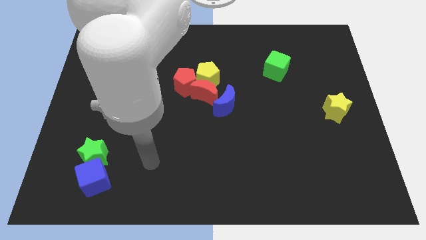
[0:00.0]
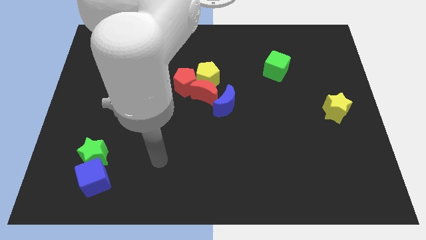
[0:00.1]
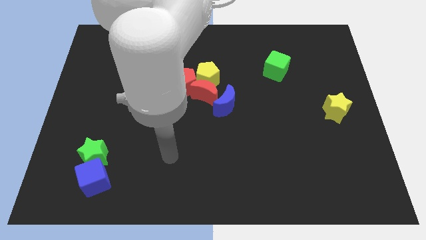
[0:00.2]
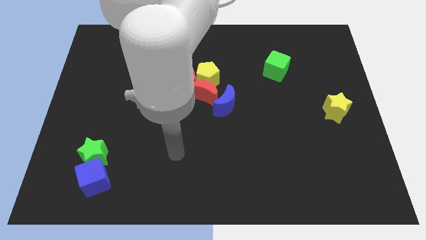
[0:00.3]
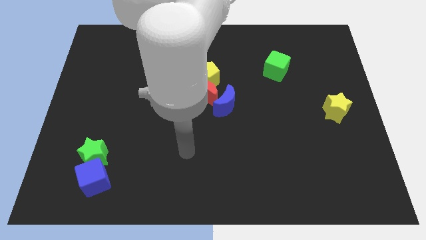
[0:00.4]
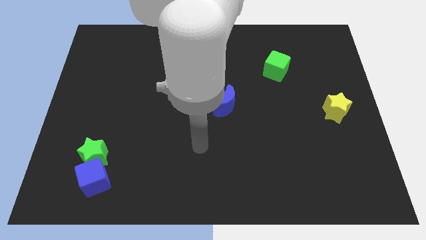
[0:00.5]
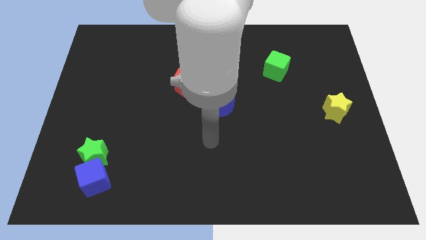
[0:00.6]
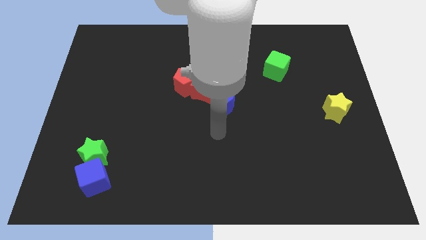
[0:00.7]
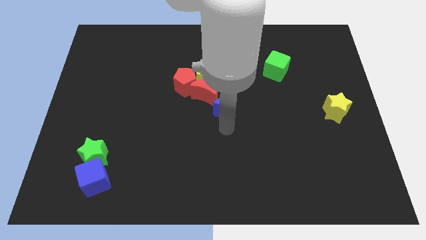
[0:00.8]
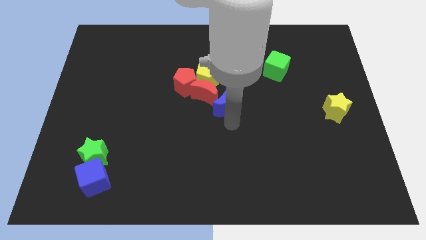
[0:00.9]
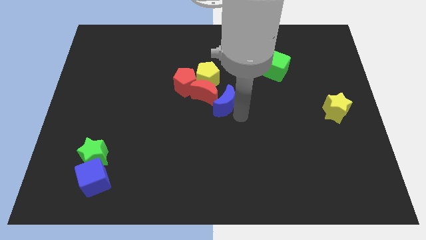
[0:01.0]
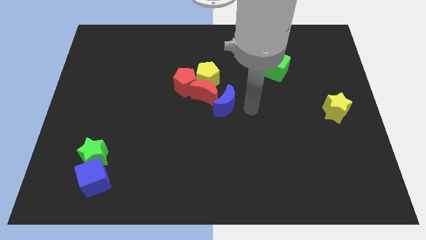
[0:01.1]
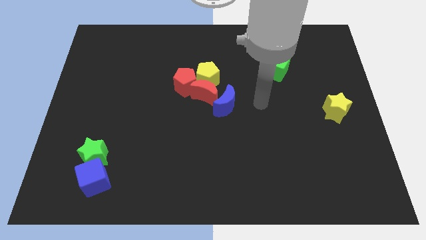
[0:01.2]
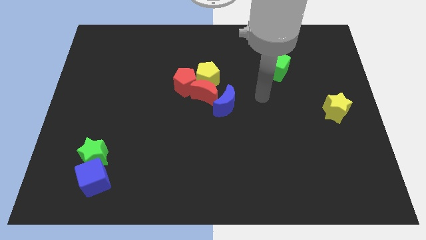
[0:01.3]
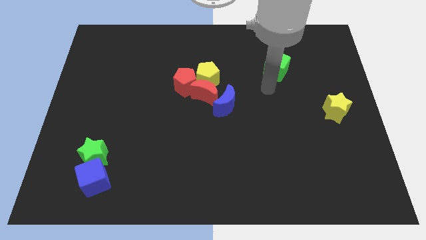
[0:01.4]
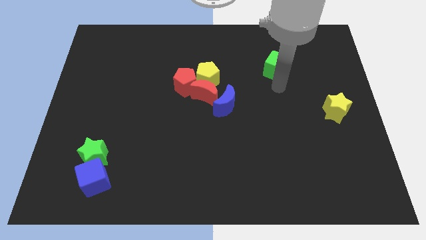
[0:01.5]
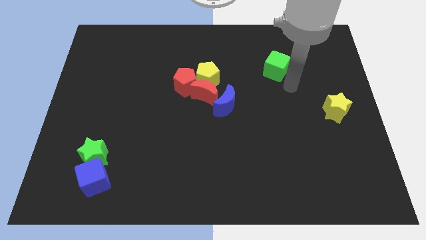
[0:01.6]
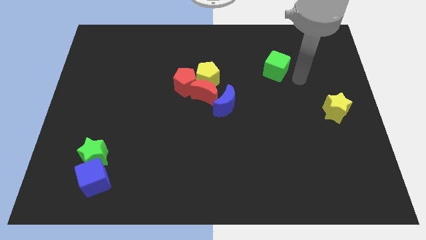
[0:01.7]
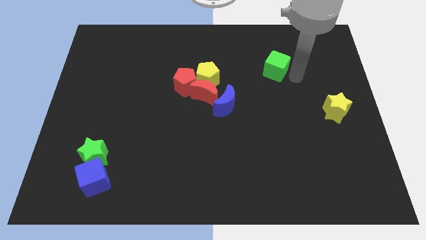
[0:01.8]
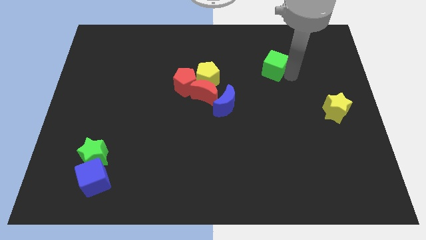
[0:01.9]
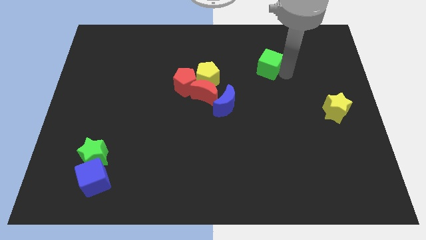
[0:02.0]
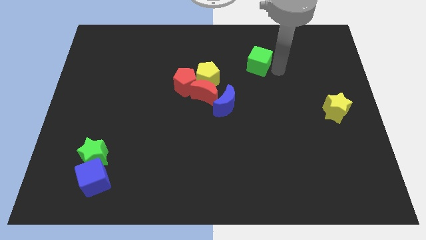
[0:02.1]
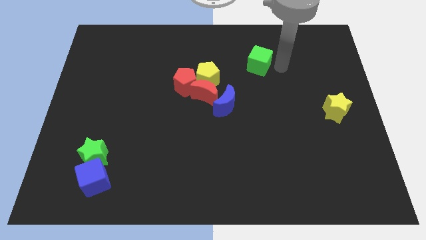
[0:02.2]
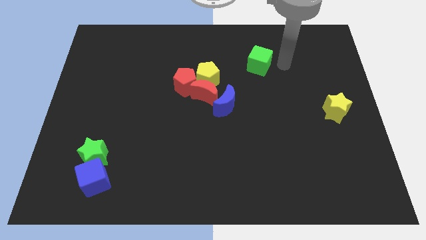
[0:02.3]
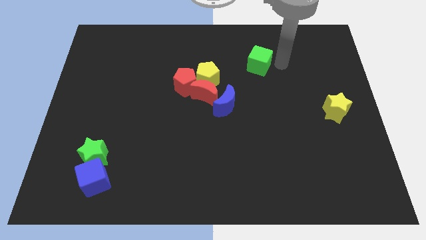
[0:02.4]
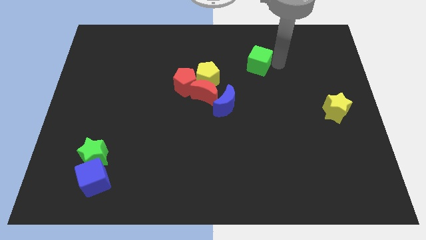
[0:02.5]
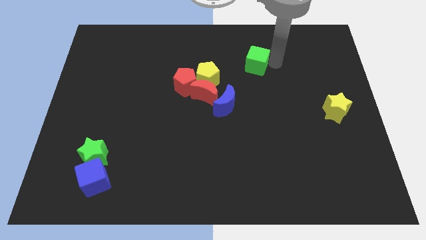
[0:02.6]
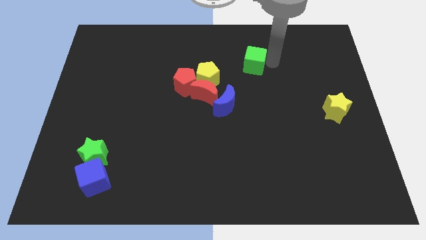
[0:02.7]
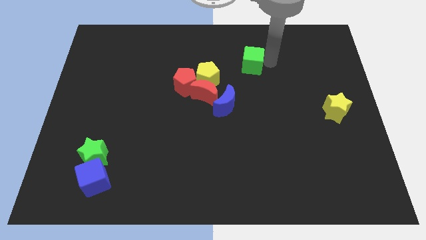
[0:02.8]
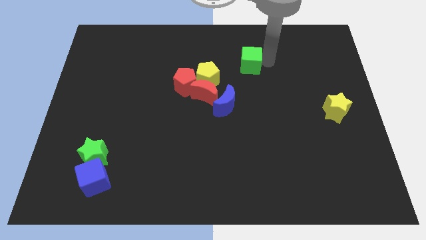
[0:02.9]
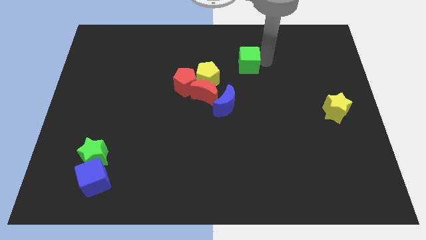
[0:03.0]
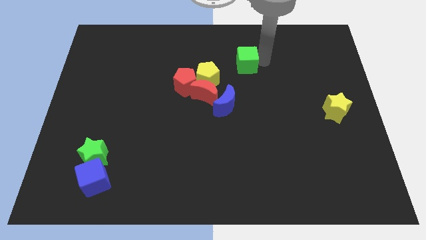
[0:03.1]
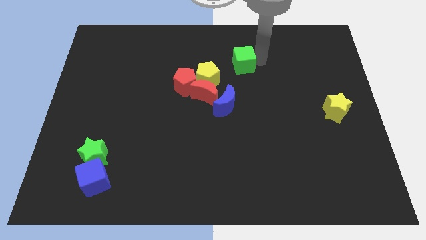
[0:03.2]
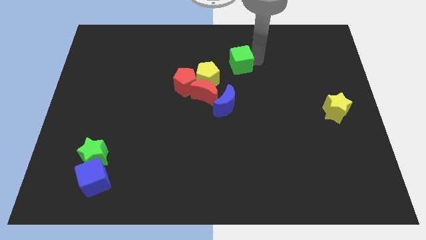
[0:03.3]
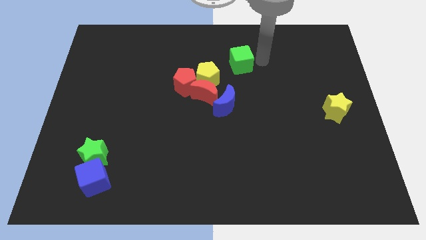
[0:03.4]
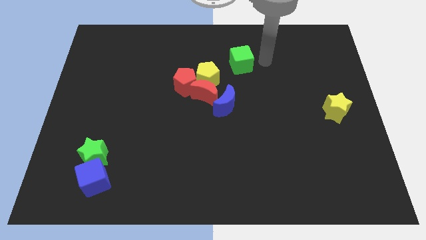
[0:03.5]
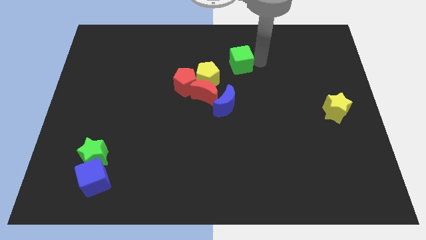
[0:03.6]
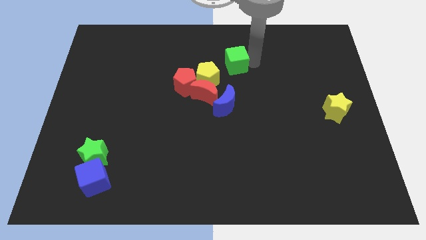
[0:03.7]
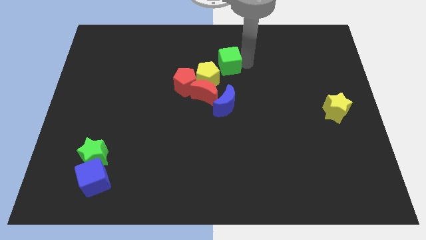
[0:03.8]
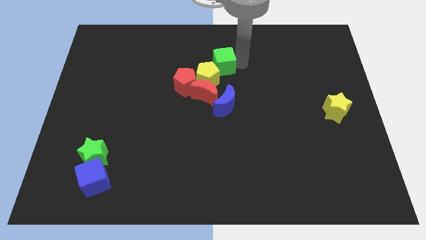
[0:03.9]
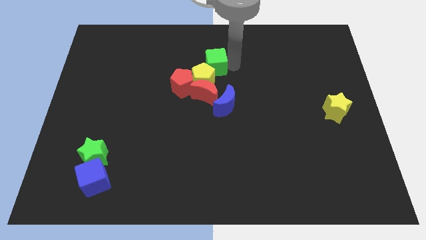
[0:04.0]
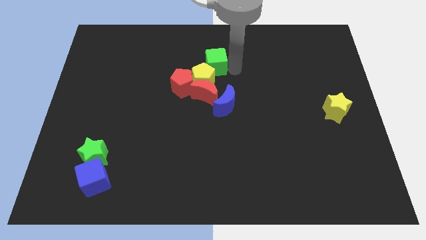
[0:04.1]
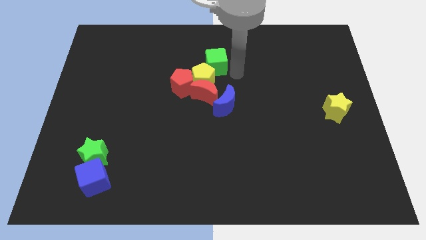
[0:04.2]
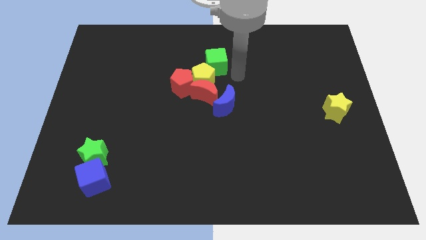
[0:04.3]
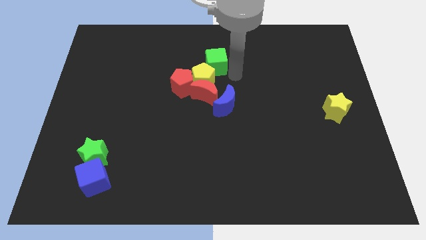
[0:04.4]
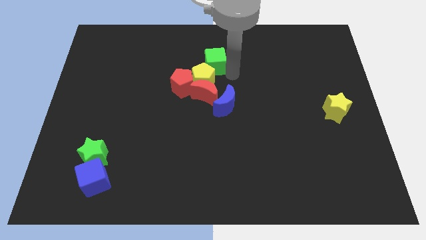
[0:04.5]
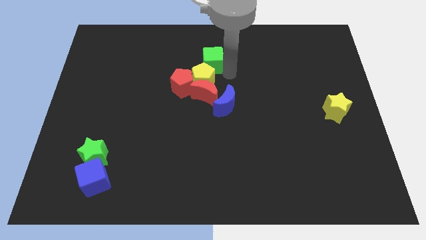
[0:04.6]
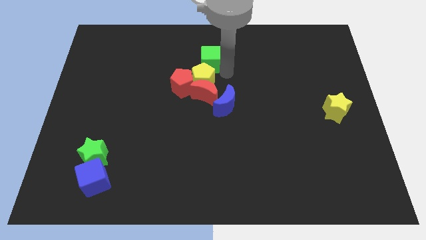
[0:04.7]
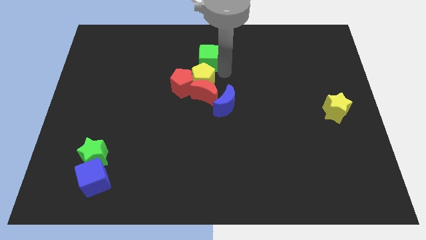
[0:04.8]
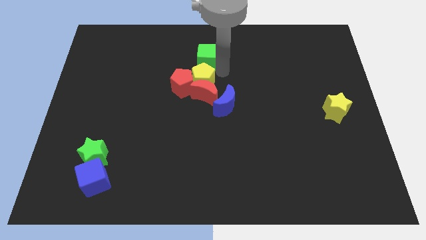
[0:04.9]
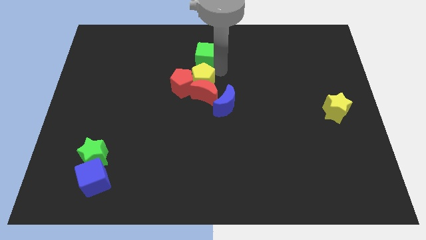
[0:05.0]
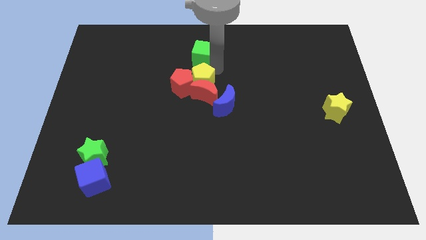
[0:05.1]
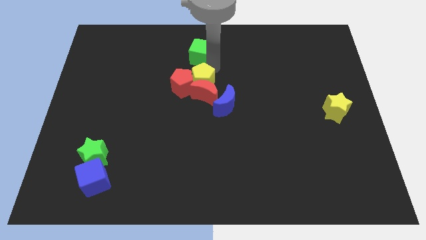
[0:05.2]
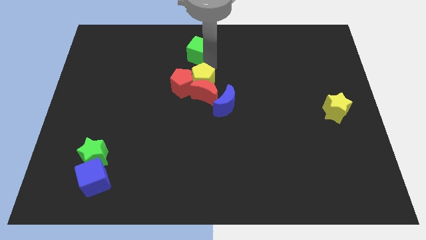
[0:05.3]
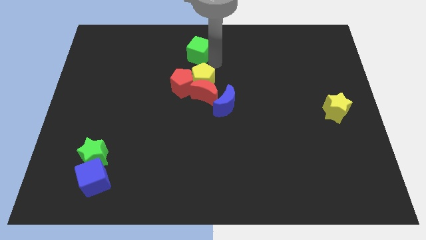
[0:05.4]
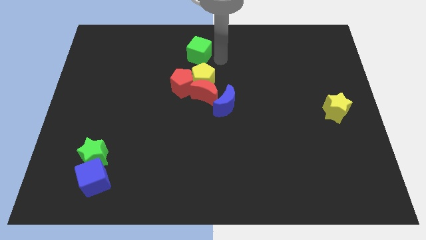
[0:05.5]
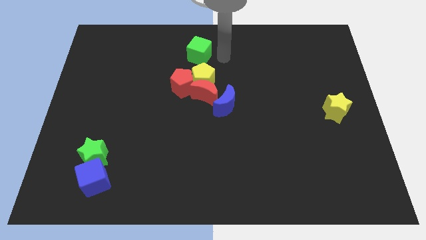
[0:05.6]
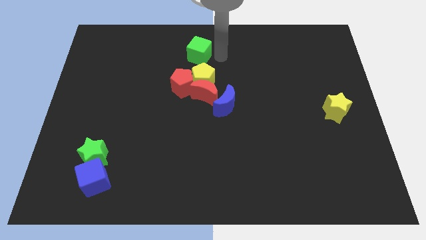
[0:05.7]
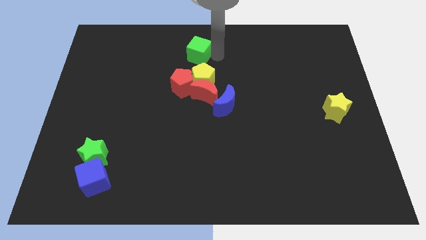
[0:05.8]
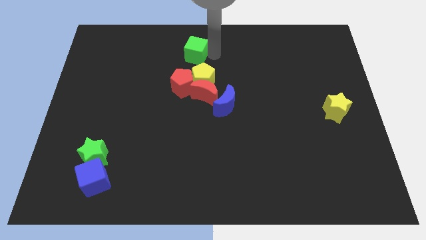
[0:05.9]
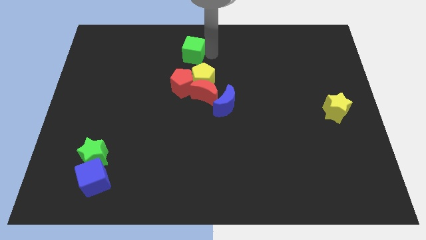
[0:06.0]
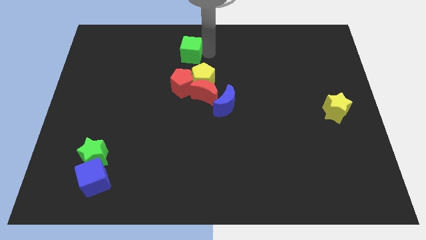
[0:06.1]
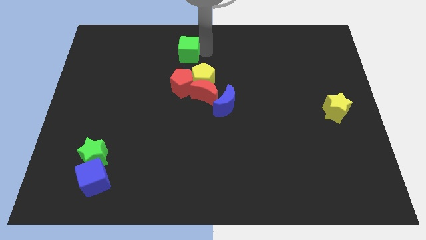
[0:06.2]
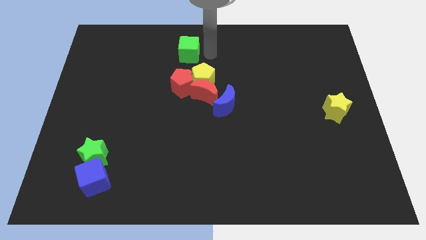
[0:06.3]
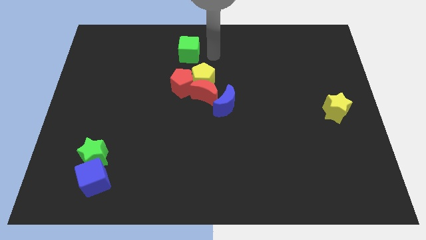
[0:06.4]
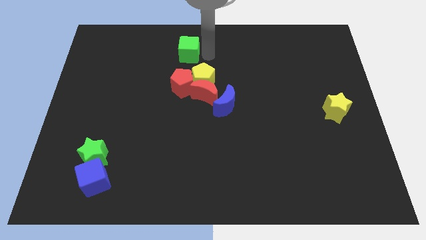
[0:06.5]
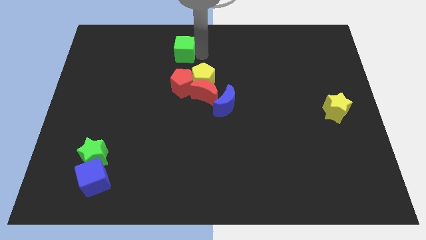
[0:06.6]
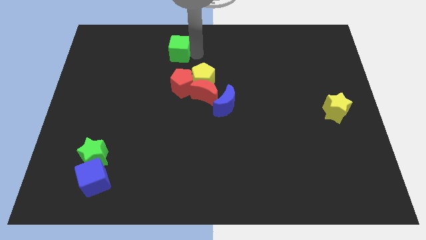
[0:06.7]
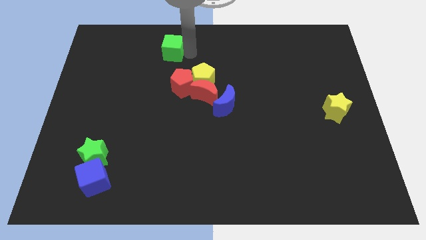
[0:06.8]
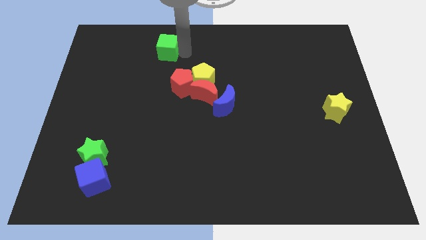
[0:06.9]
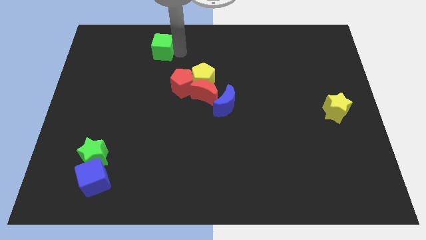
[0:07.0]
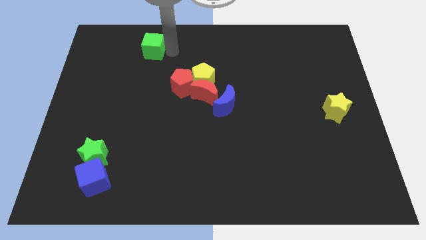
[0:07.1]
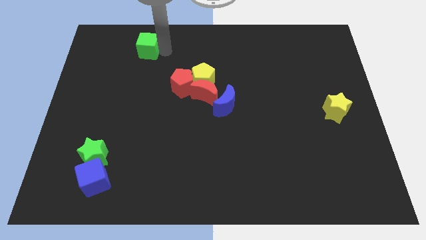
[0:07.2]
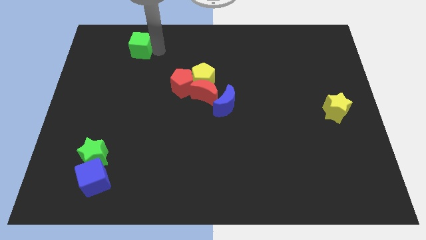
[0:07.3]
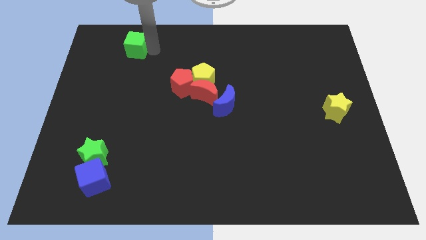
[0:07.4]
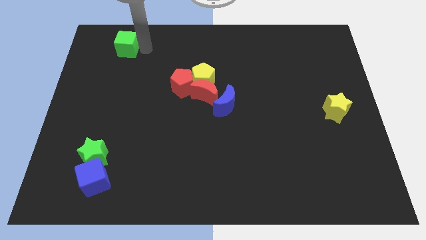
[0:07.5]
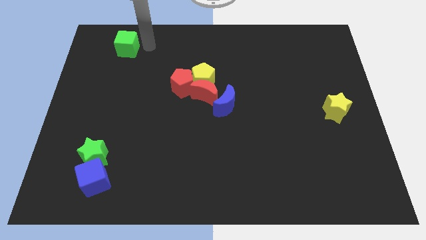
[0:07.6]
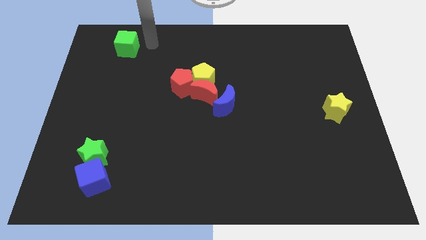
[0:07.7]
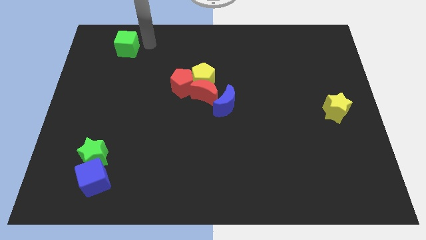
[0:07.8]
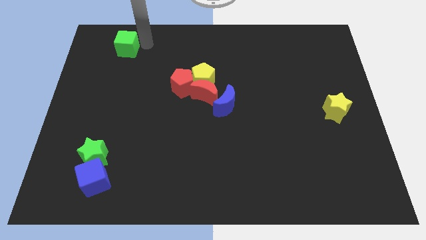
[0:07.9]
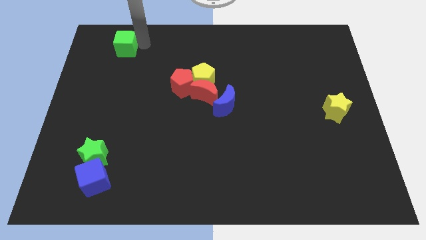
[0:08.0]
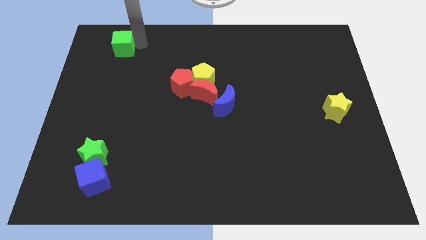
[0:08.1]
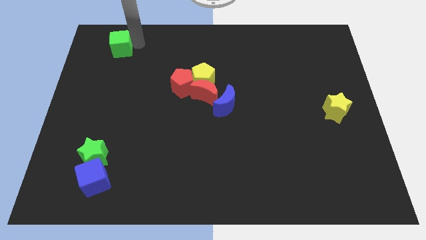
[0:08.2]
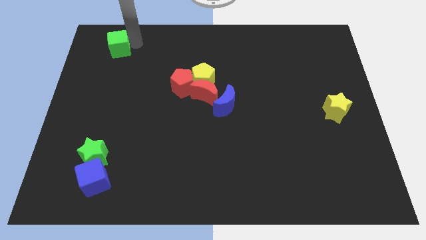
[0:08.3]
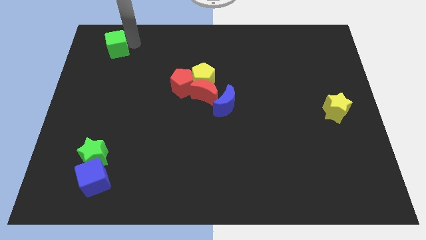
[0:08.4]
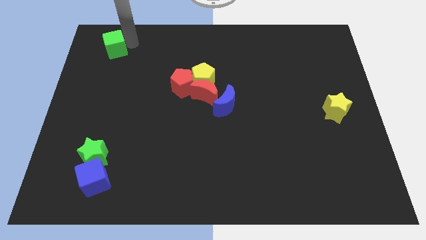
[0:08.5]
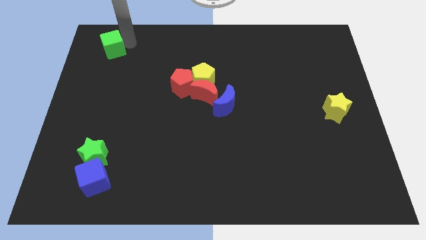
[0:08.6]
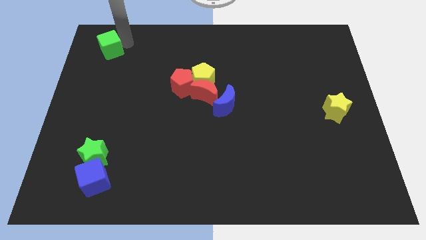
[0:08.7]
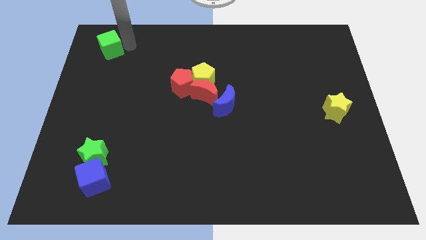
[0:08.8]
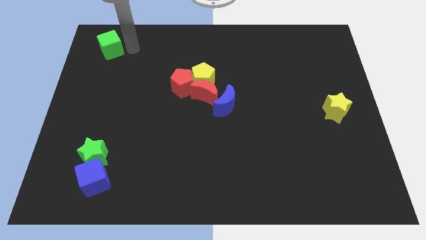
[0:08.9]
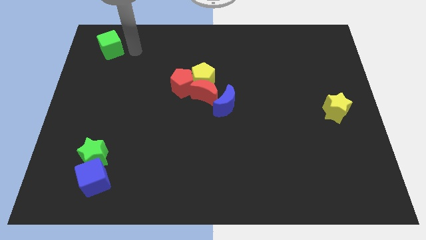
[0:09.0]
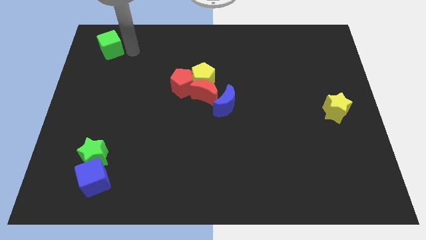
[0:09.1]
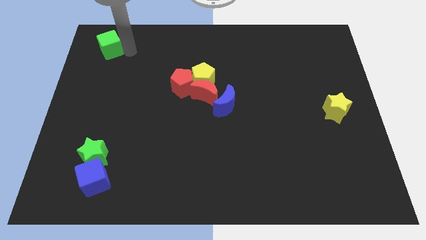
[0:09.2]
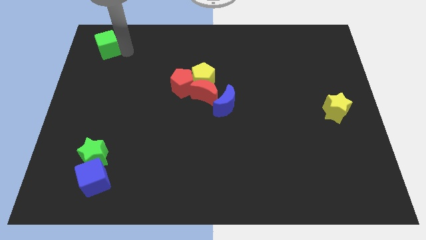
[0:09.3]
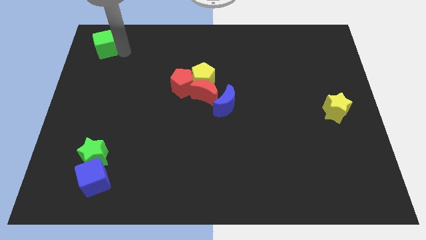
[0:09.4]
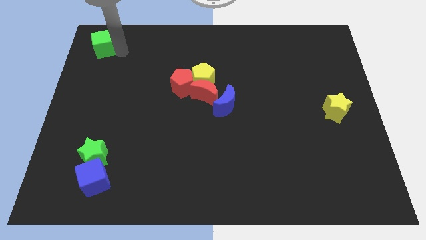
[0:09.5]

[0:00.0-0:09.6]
slide the green cube to the upper left corner
